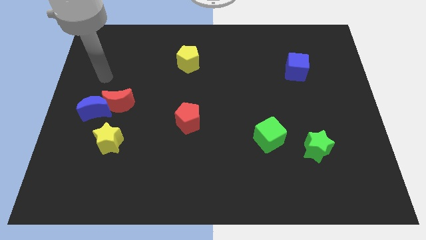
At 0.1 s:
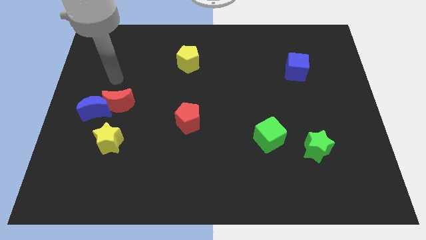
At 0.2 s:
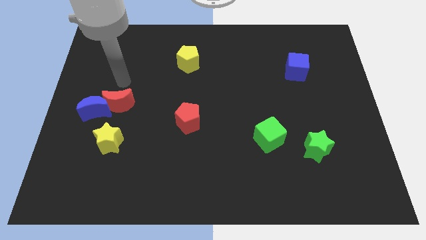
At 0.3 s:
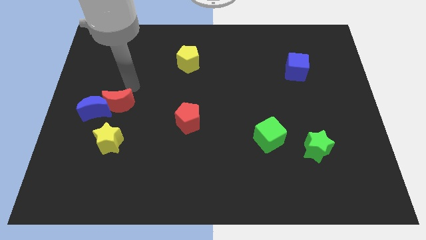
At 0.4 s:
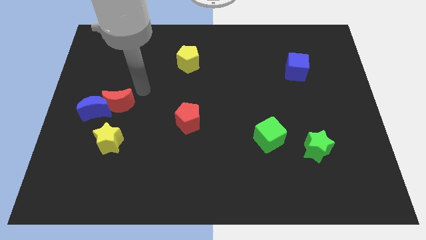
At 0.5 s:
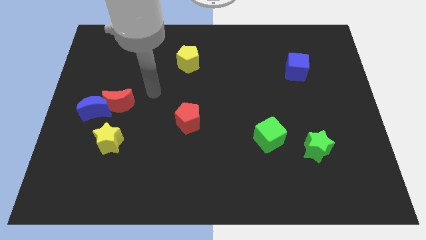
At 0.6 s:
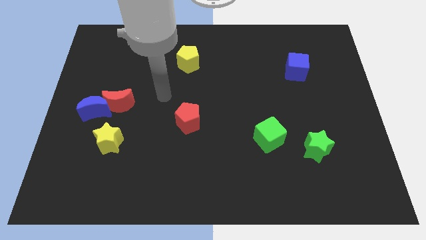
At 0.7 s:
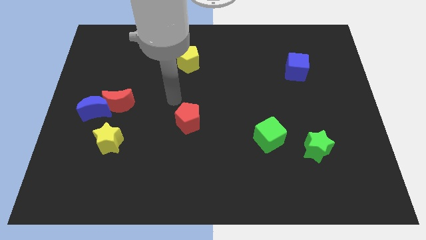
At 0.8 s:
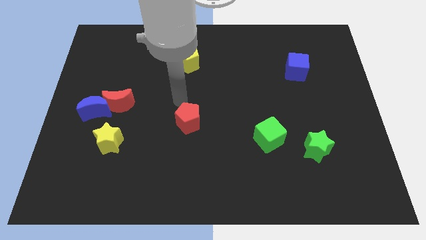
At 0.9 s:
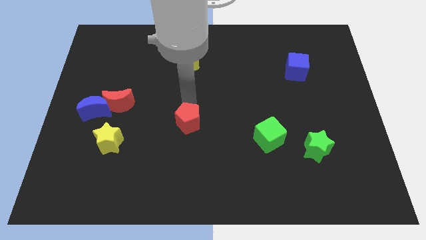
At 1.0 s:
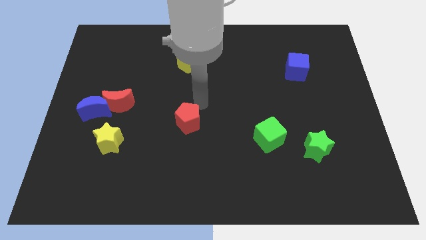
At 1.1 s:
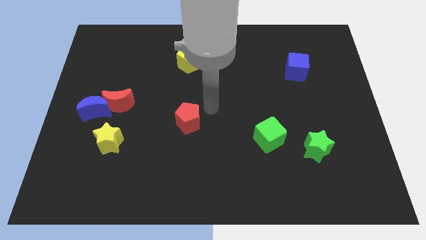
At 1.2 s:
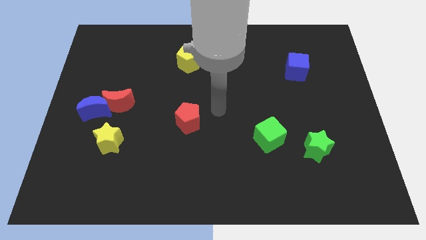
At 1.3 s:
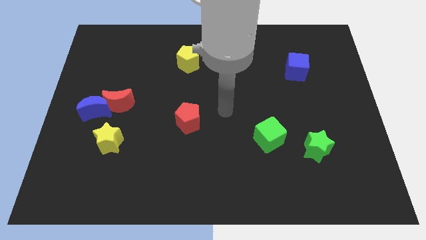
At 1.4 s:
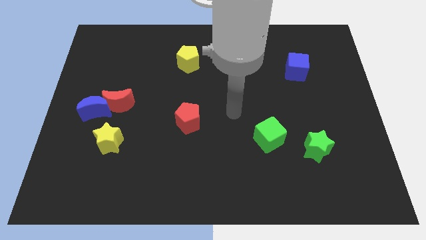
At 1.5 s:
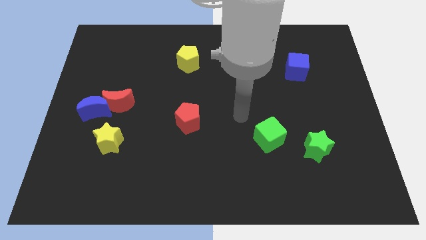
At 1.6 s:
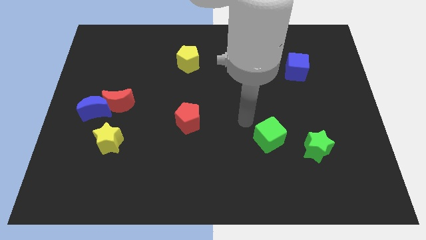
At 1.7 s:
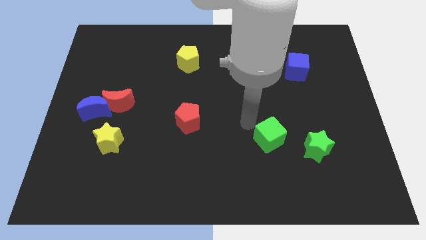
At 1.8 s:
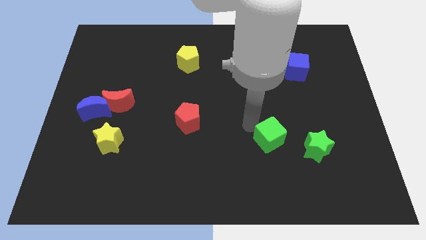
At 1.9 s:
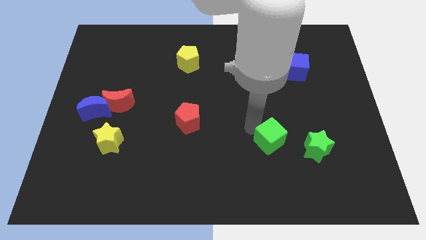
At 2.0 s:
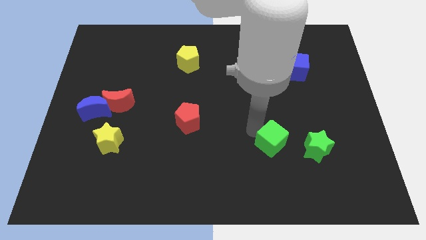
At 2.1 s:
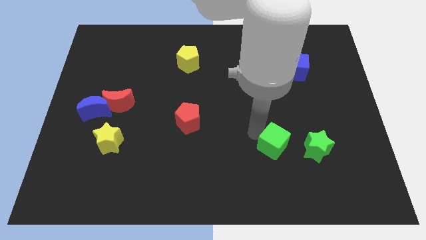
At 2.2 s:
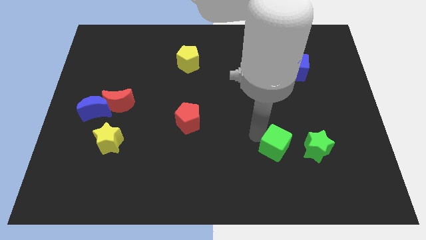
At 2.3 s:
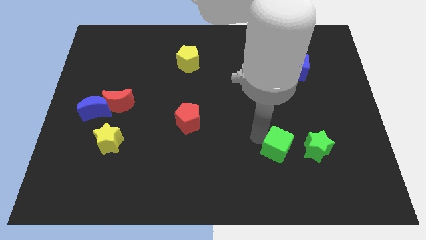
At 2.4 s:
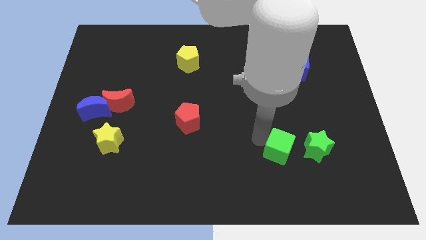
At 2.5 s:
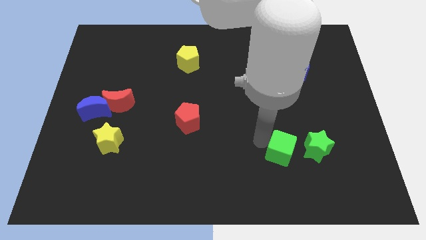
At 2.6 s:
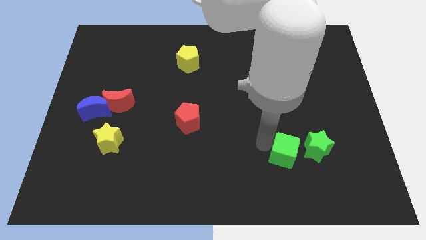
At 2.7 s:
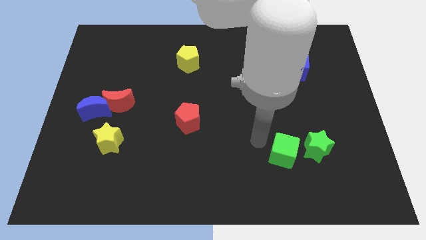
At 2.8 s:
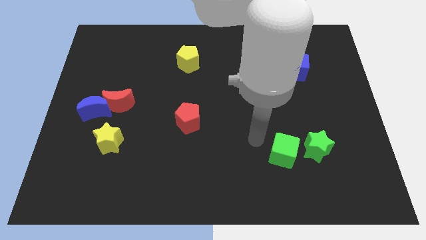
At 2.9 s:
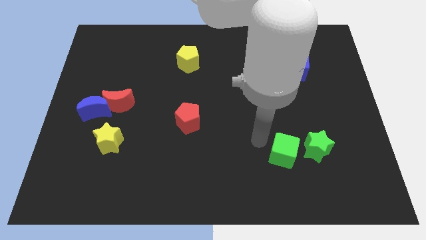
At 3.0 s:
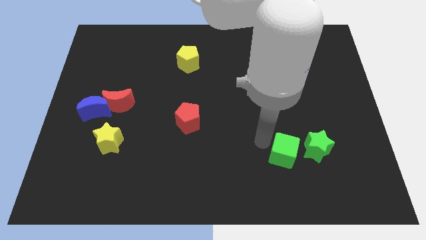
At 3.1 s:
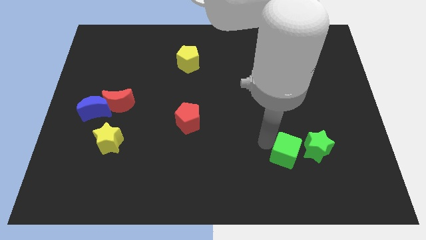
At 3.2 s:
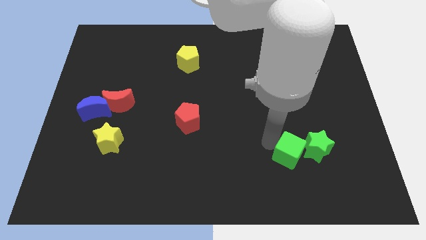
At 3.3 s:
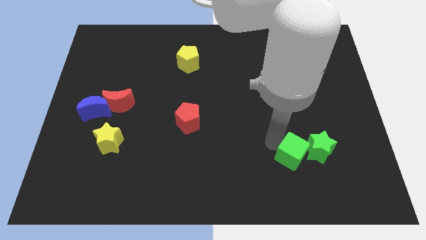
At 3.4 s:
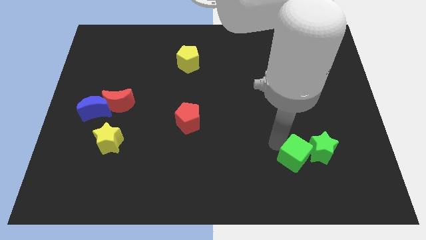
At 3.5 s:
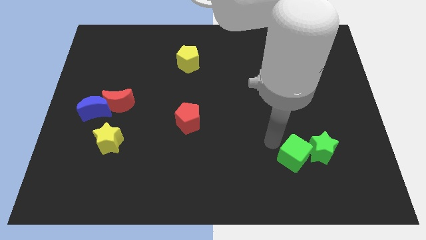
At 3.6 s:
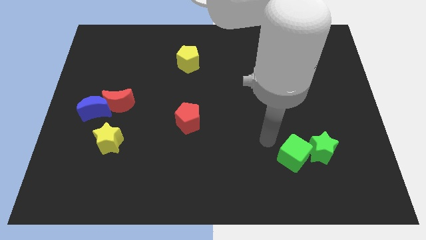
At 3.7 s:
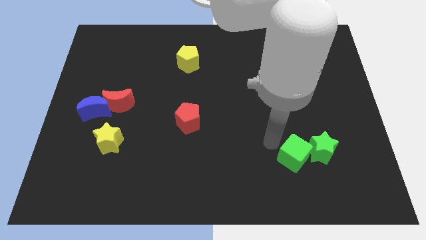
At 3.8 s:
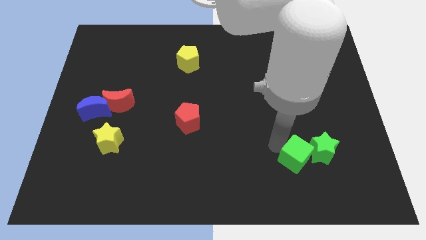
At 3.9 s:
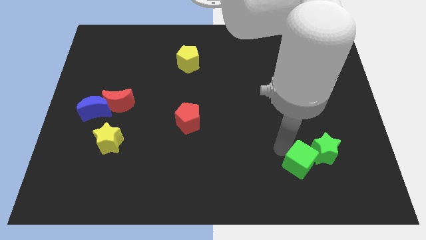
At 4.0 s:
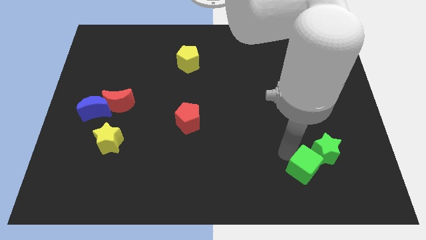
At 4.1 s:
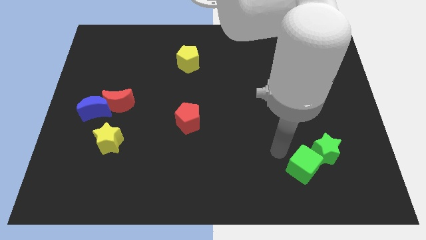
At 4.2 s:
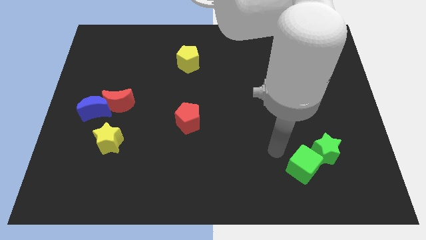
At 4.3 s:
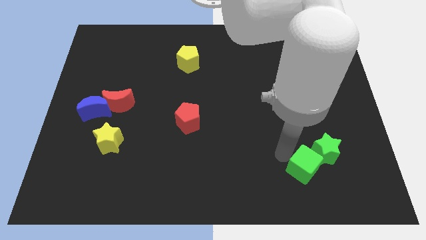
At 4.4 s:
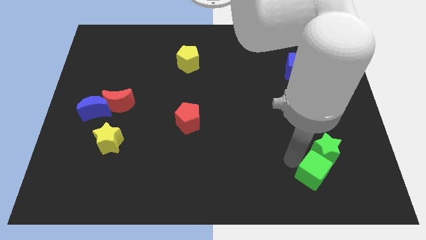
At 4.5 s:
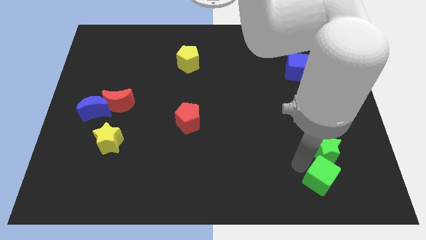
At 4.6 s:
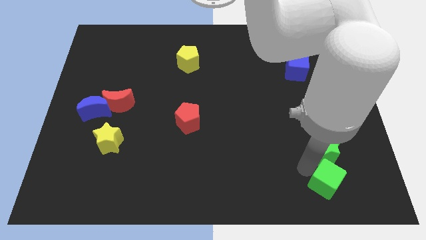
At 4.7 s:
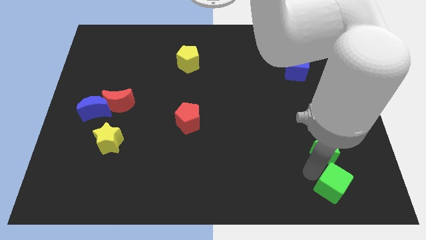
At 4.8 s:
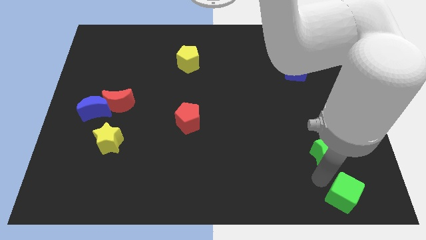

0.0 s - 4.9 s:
move the green cube to the bottom right

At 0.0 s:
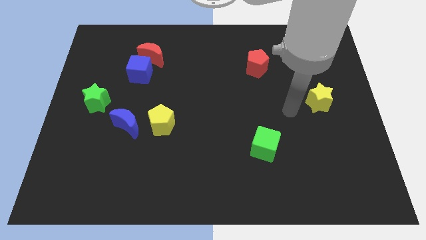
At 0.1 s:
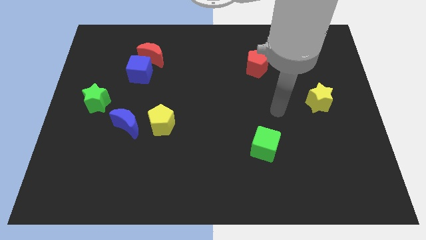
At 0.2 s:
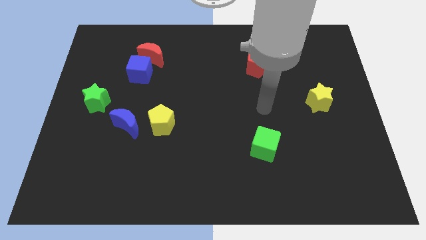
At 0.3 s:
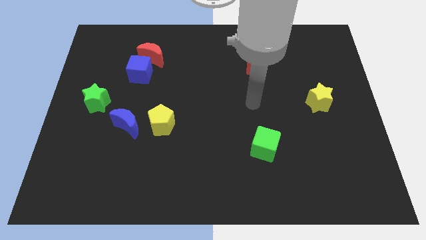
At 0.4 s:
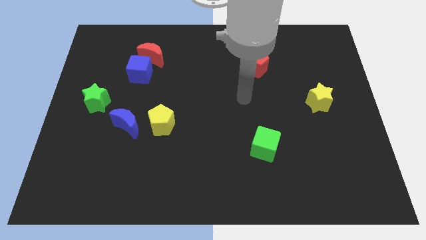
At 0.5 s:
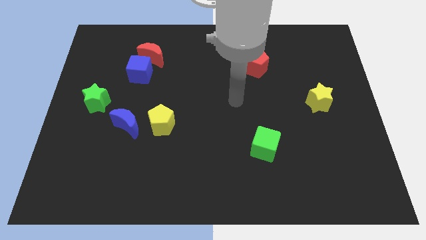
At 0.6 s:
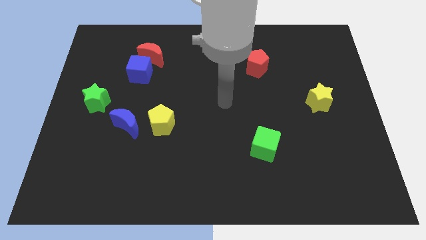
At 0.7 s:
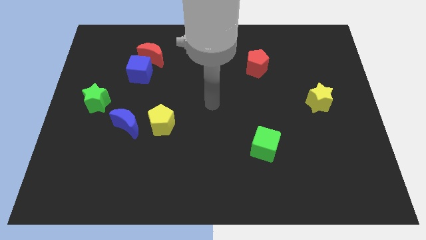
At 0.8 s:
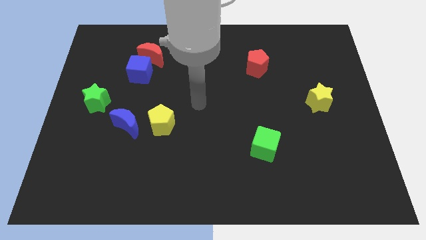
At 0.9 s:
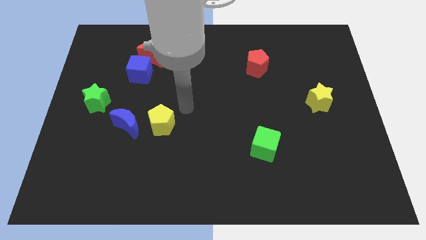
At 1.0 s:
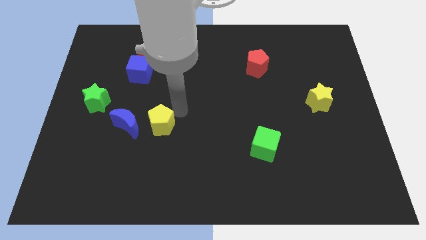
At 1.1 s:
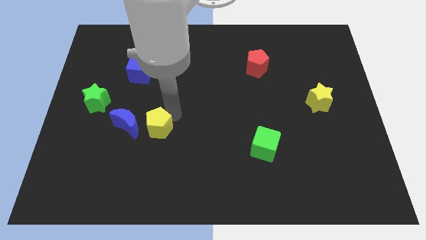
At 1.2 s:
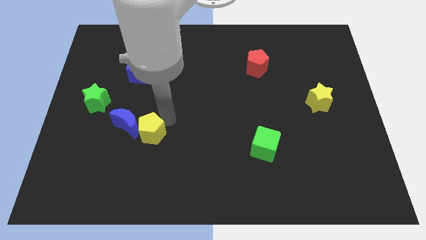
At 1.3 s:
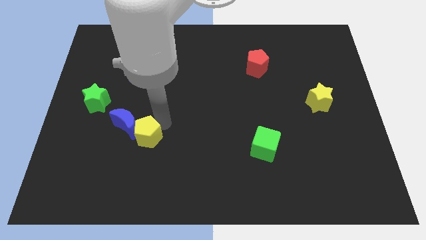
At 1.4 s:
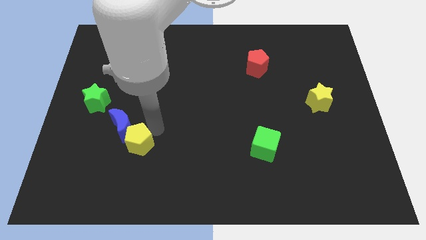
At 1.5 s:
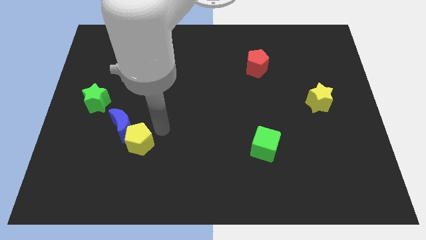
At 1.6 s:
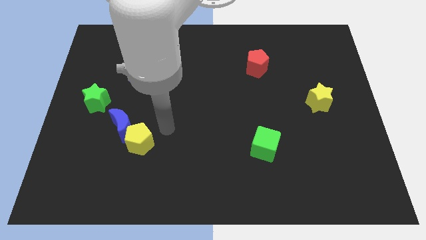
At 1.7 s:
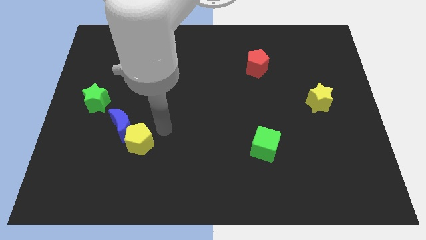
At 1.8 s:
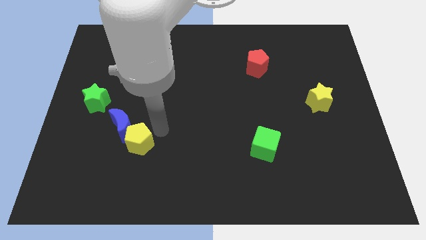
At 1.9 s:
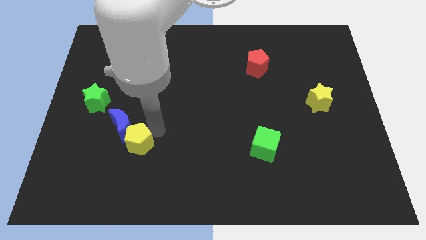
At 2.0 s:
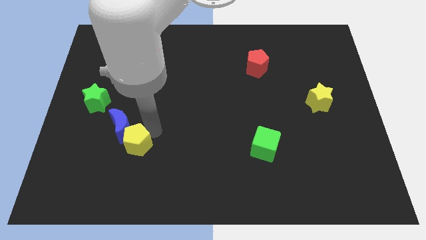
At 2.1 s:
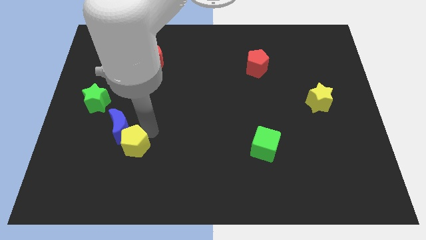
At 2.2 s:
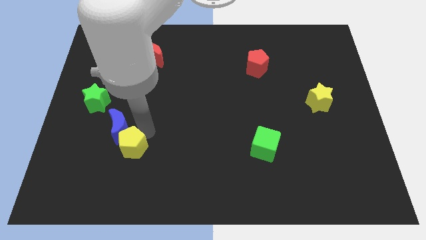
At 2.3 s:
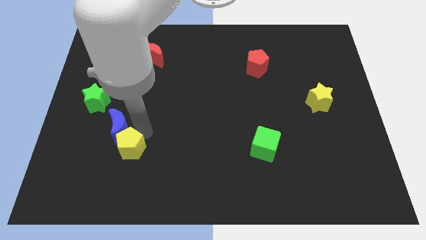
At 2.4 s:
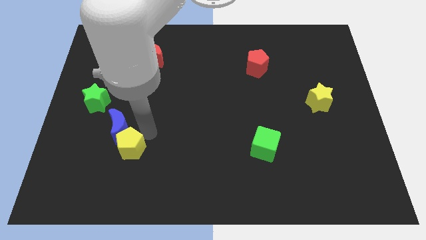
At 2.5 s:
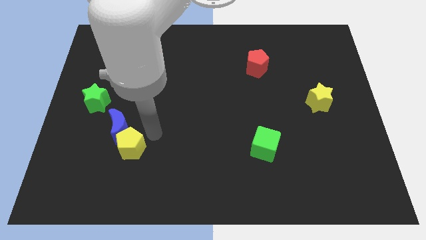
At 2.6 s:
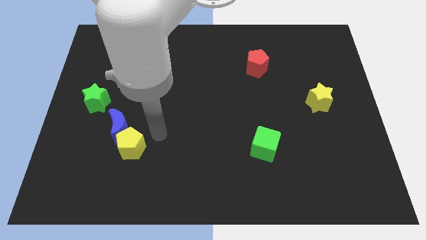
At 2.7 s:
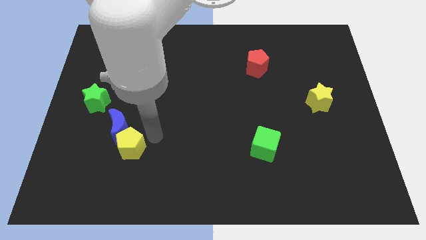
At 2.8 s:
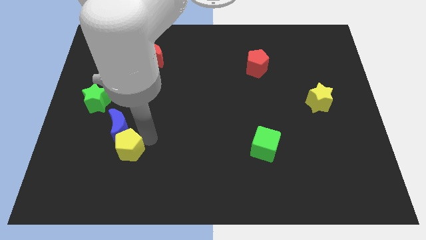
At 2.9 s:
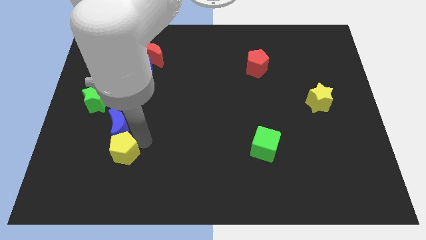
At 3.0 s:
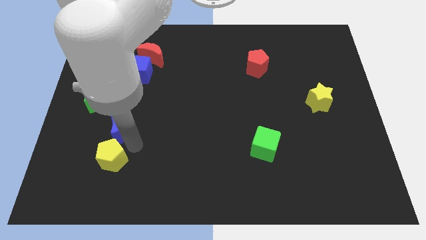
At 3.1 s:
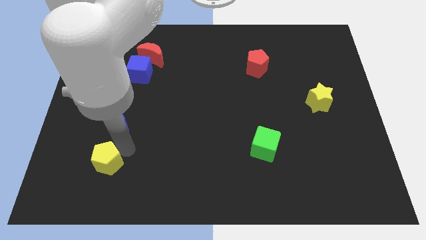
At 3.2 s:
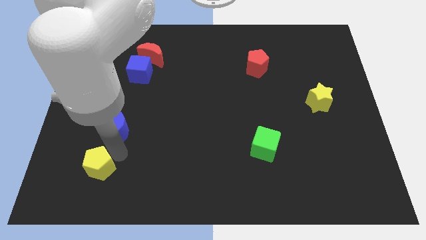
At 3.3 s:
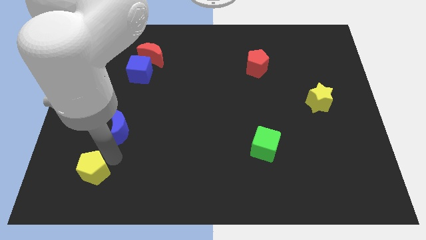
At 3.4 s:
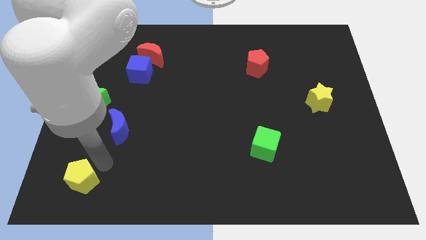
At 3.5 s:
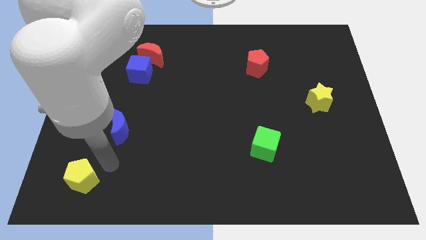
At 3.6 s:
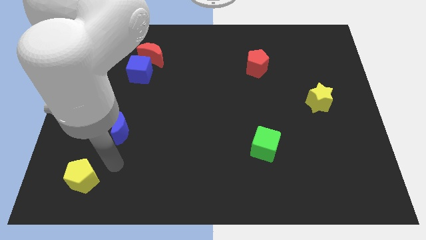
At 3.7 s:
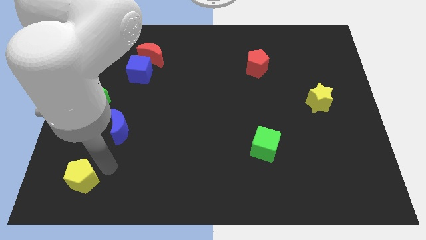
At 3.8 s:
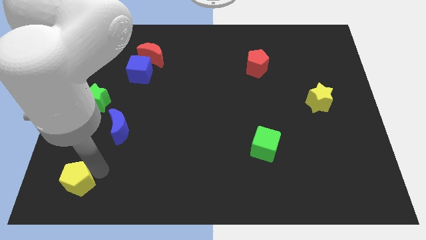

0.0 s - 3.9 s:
move the yellow pentagon to the bottom left
